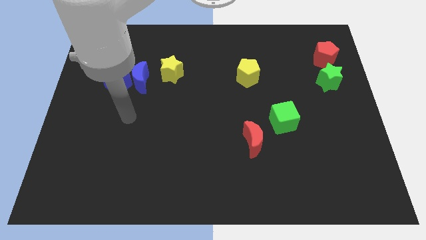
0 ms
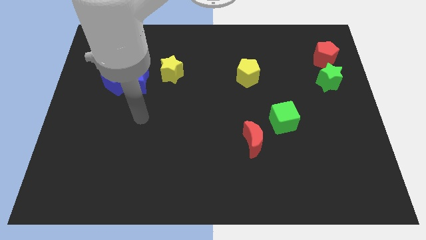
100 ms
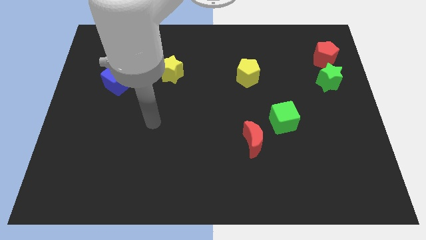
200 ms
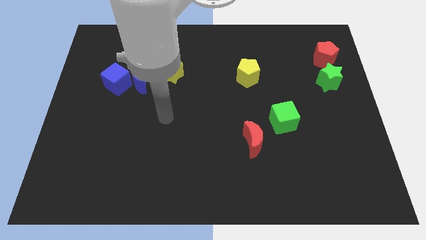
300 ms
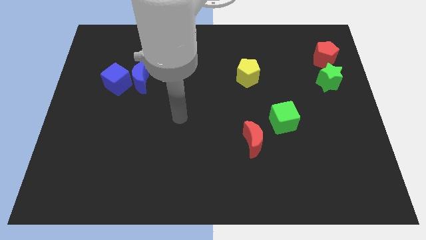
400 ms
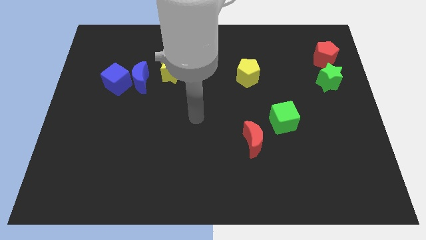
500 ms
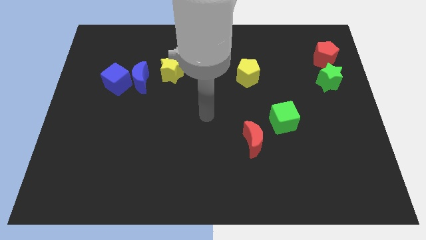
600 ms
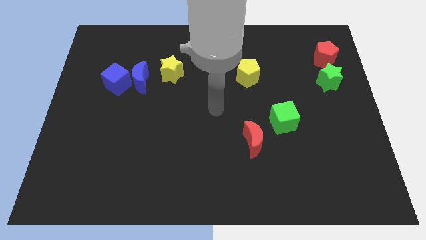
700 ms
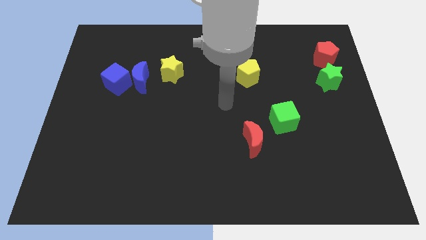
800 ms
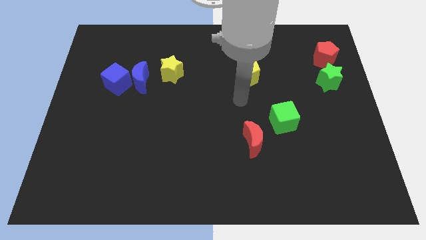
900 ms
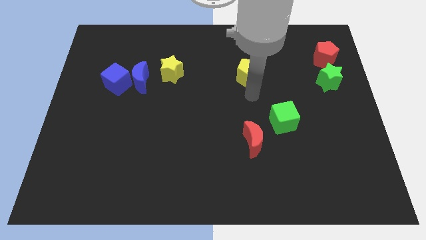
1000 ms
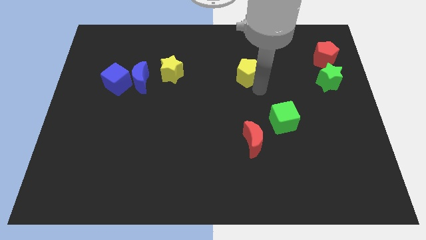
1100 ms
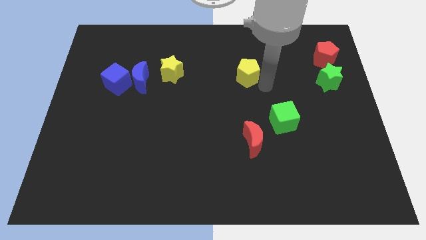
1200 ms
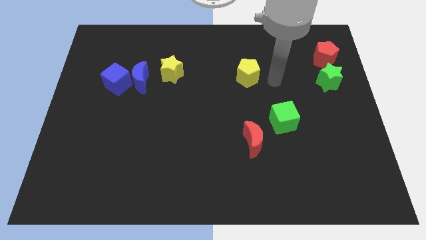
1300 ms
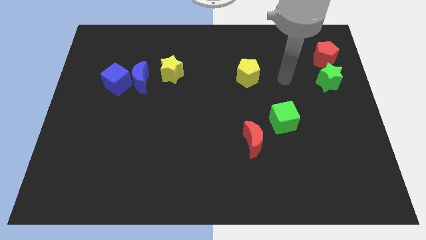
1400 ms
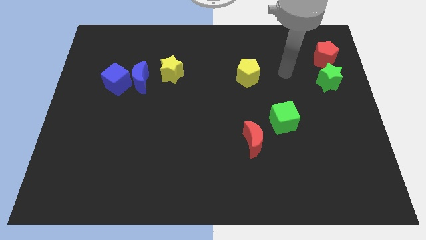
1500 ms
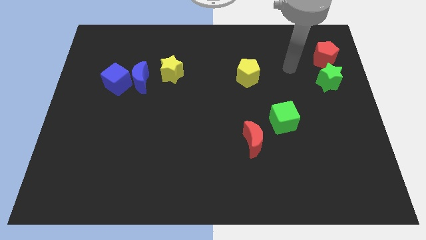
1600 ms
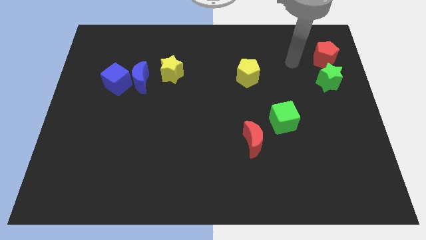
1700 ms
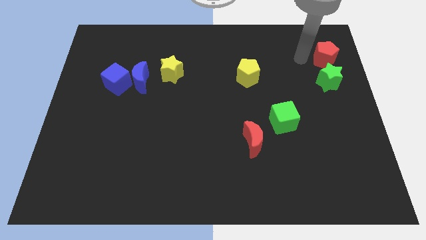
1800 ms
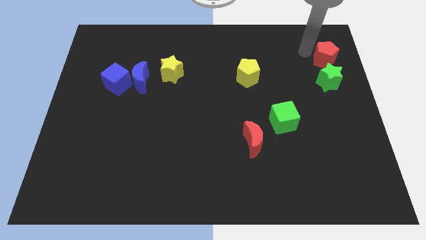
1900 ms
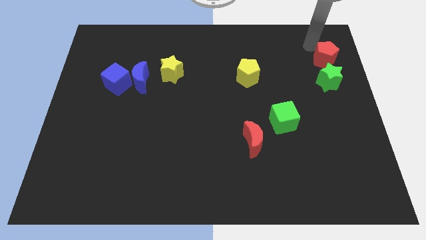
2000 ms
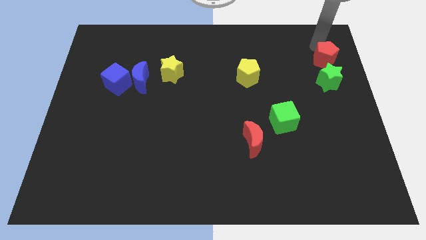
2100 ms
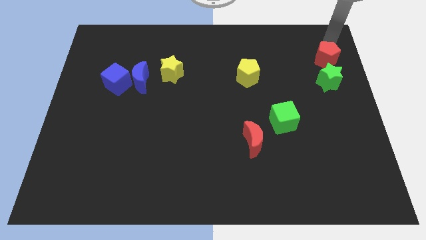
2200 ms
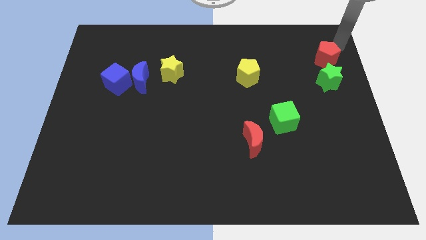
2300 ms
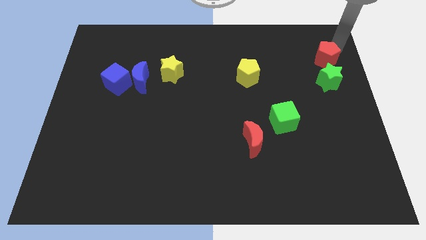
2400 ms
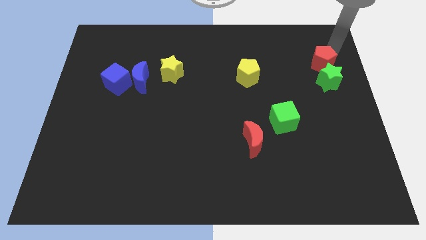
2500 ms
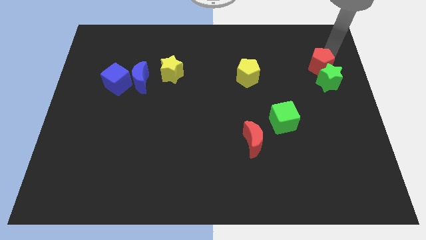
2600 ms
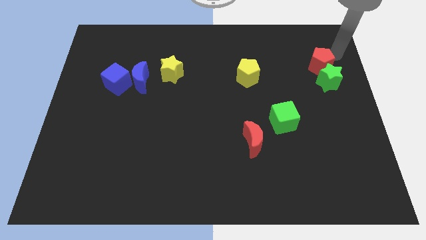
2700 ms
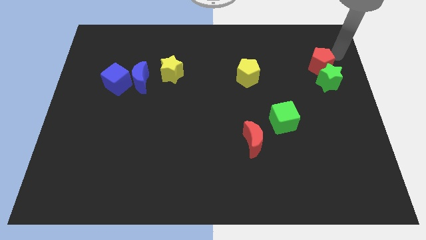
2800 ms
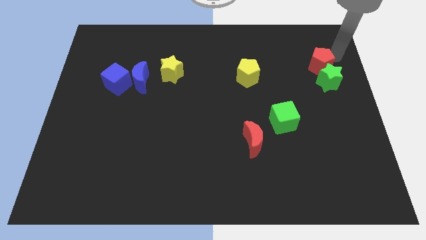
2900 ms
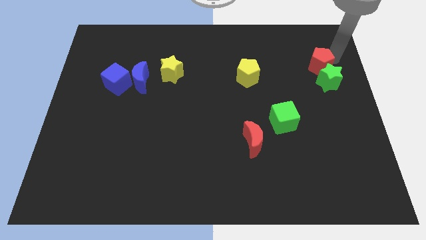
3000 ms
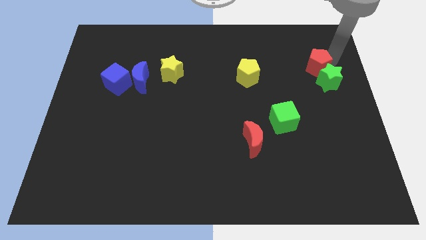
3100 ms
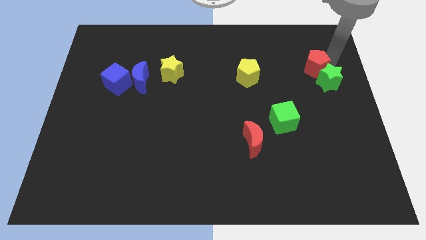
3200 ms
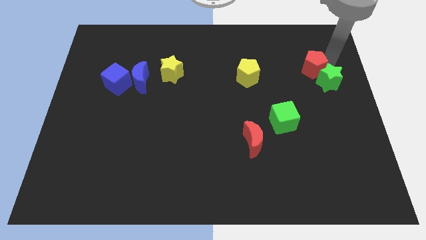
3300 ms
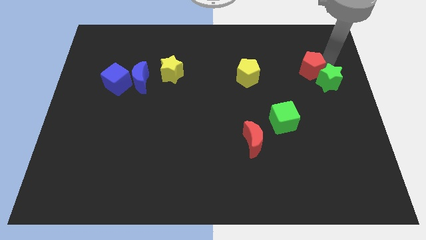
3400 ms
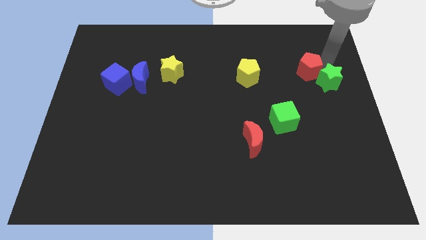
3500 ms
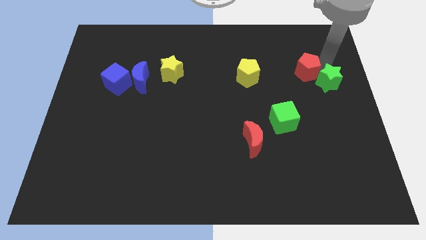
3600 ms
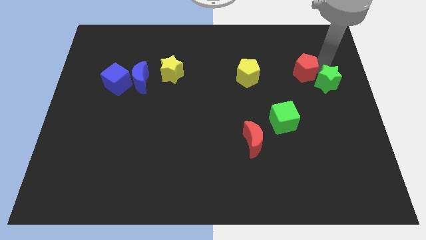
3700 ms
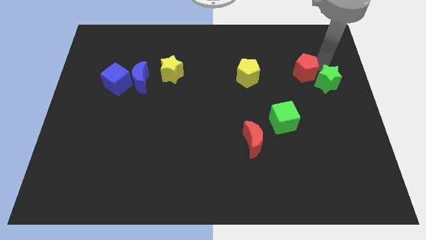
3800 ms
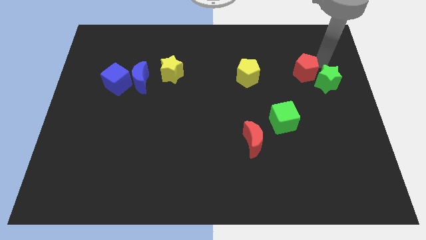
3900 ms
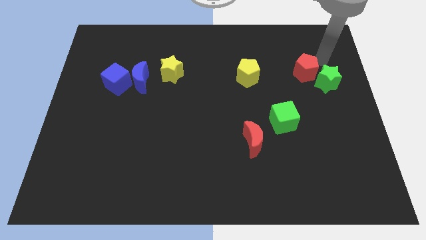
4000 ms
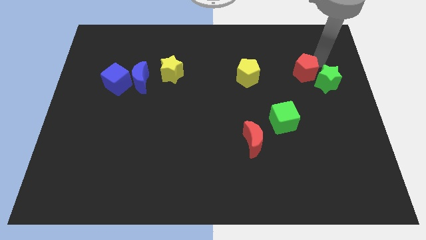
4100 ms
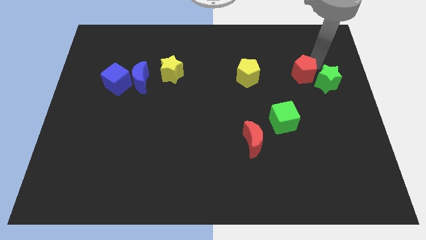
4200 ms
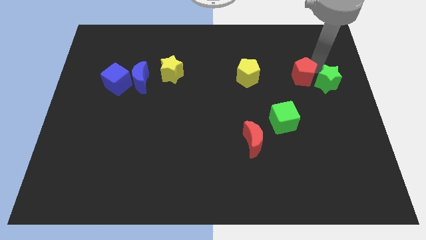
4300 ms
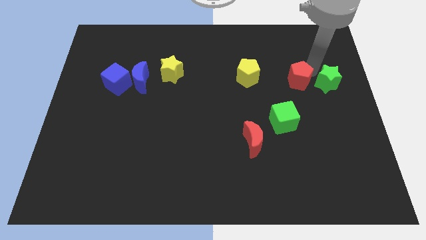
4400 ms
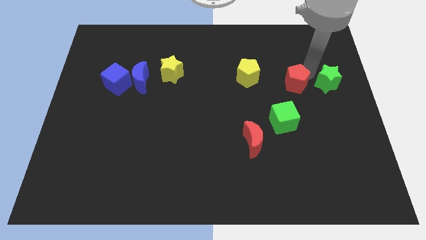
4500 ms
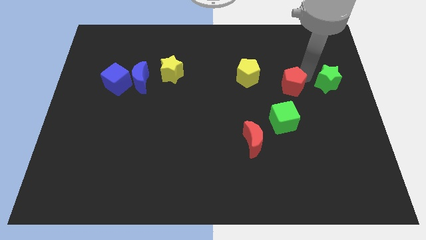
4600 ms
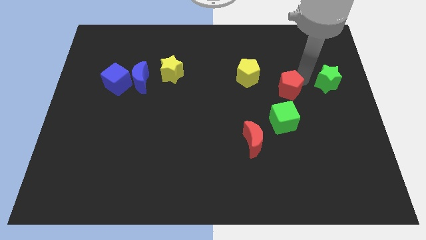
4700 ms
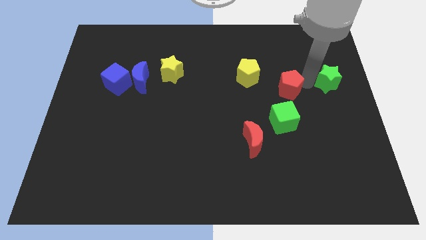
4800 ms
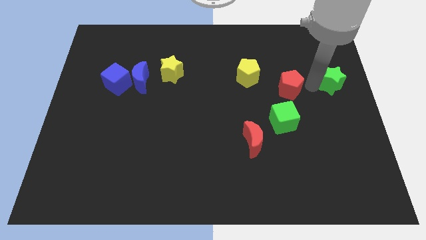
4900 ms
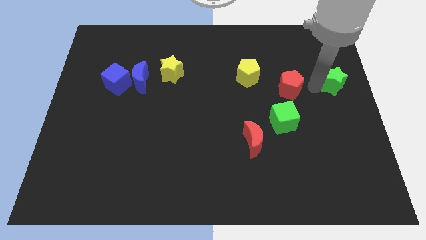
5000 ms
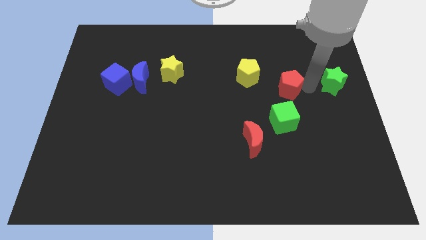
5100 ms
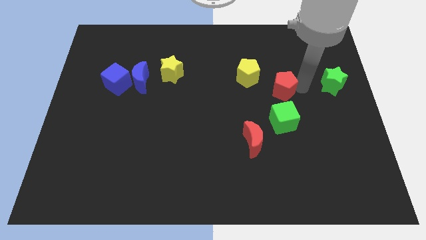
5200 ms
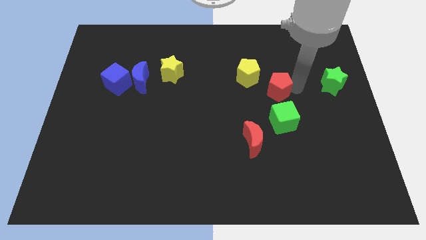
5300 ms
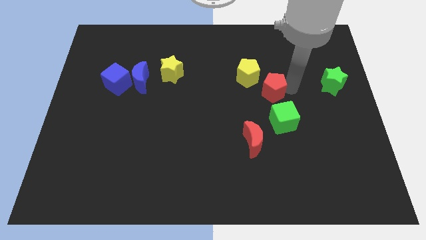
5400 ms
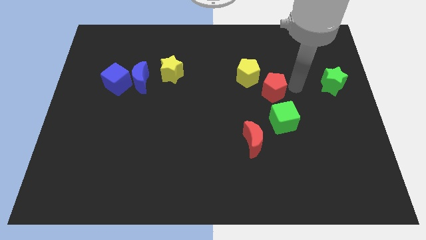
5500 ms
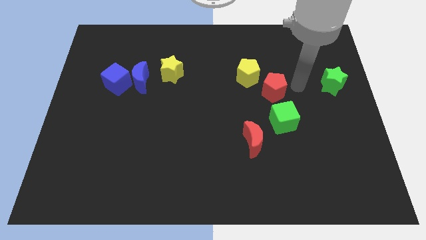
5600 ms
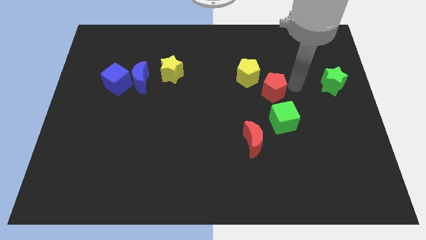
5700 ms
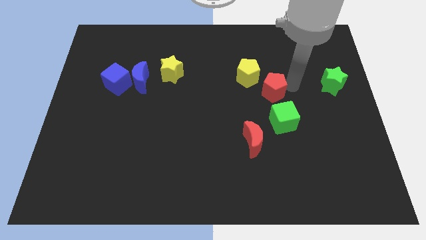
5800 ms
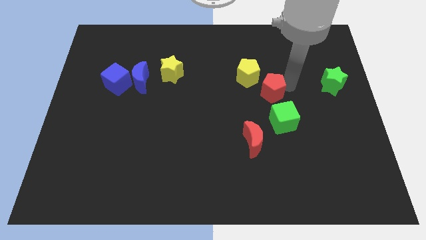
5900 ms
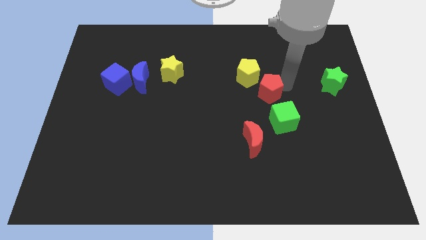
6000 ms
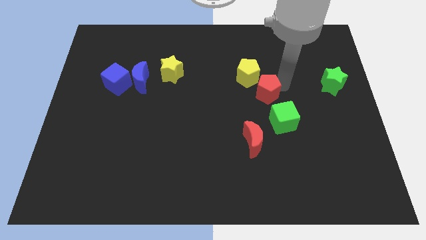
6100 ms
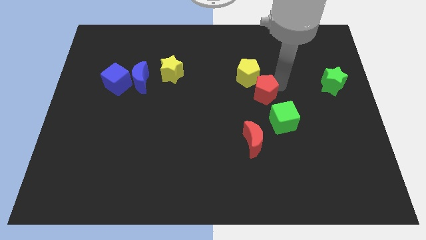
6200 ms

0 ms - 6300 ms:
slide the red pentagon to the center of the board

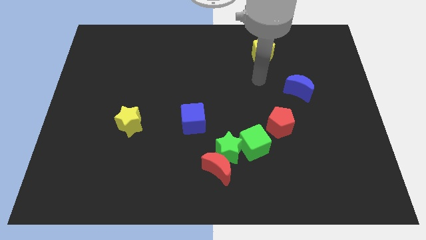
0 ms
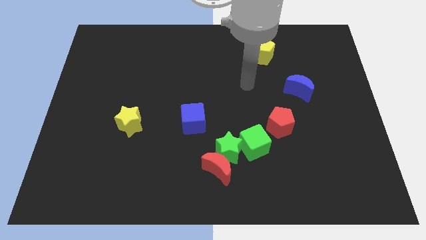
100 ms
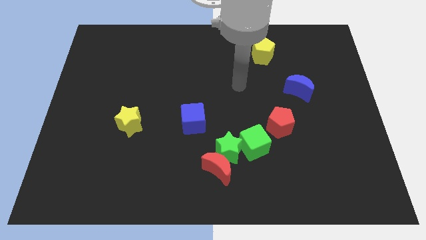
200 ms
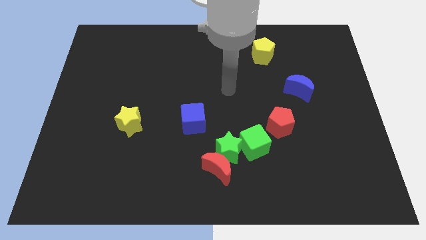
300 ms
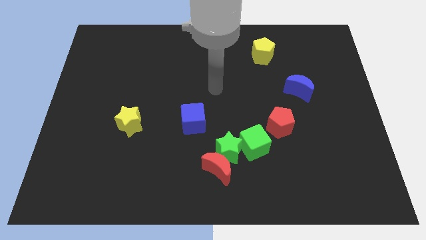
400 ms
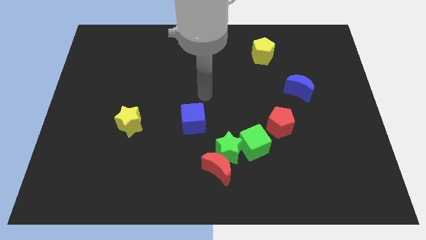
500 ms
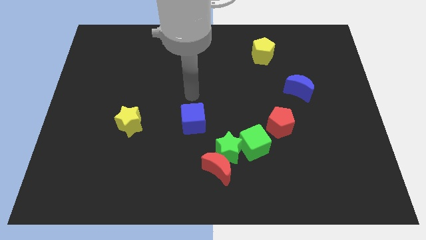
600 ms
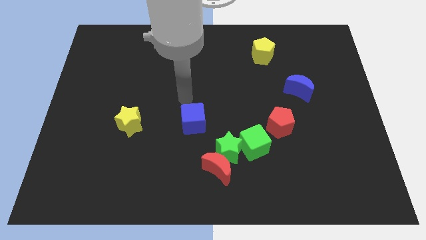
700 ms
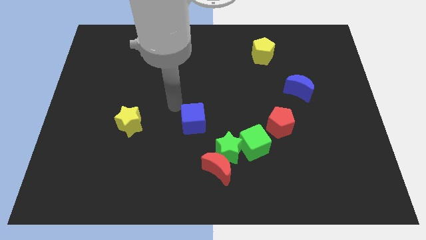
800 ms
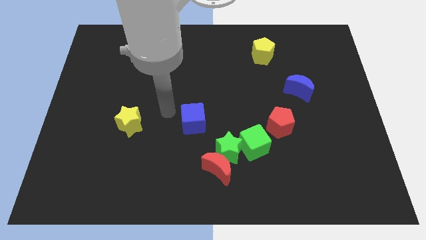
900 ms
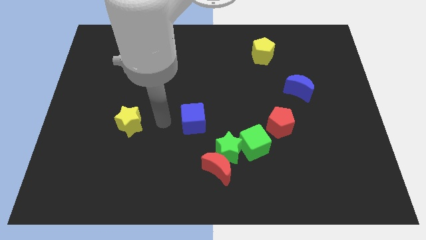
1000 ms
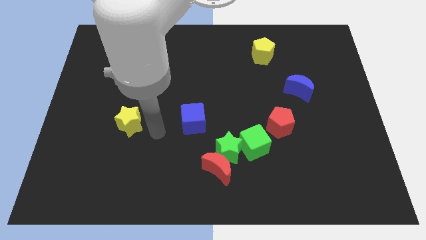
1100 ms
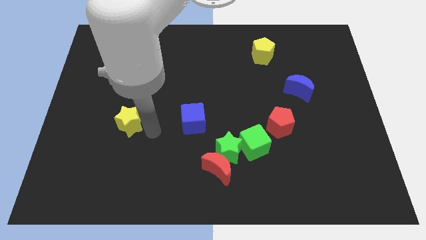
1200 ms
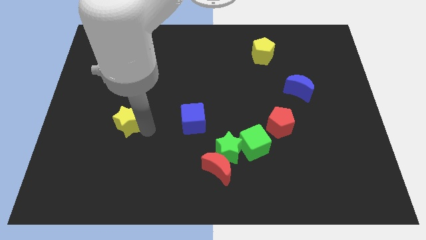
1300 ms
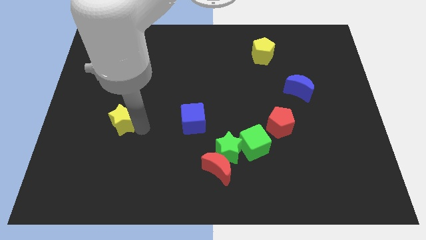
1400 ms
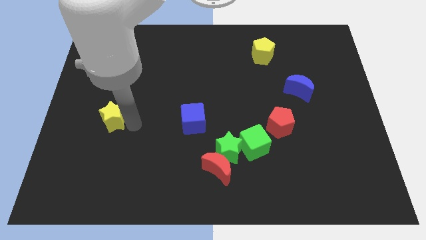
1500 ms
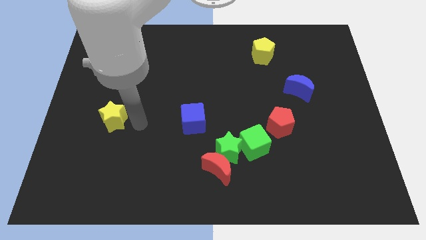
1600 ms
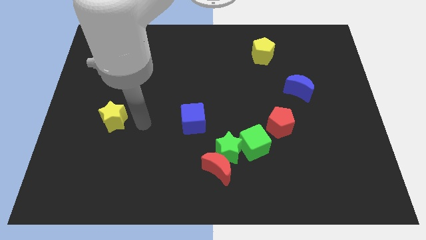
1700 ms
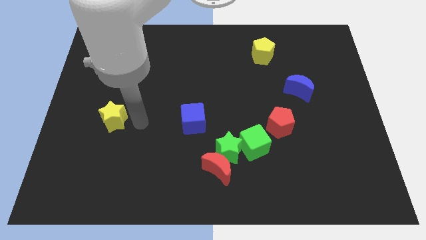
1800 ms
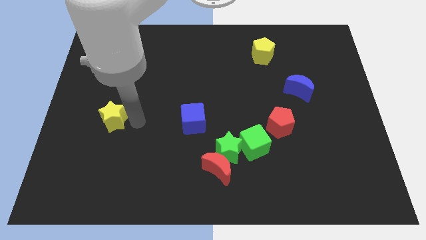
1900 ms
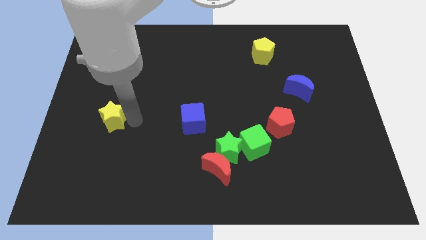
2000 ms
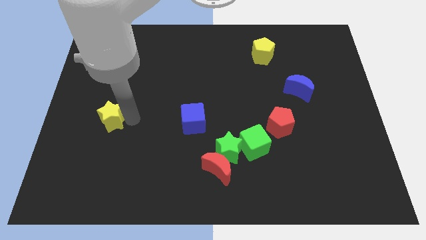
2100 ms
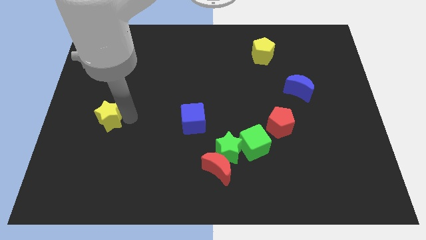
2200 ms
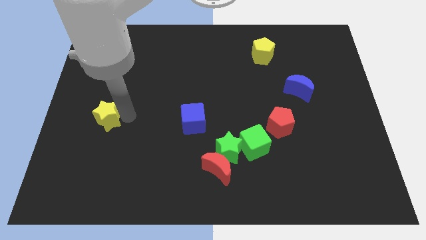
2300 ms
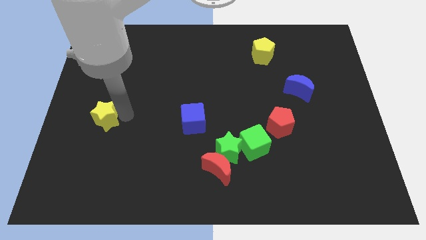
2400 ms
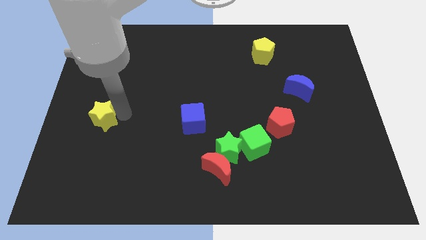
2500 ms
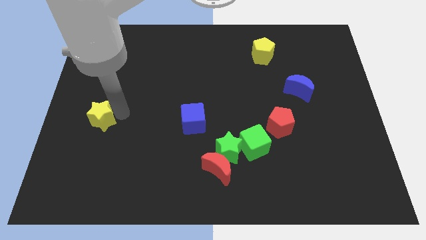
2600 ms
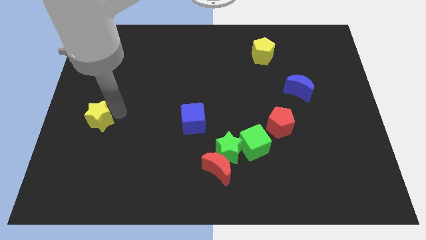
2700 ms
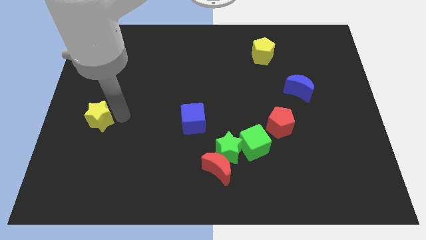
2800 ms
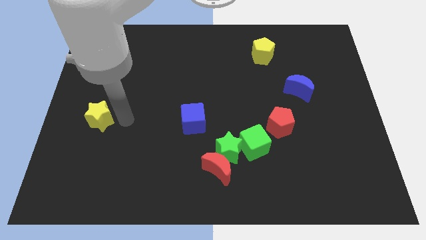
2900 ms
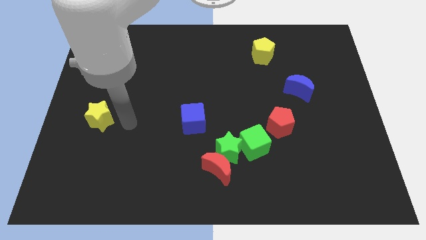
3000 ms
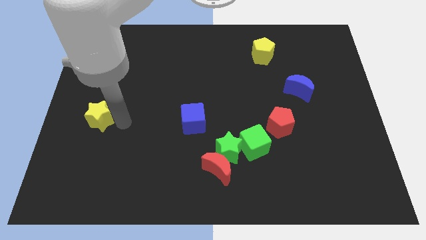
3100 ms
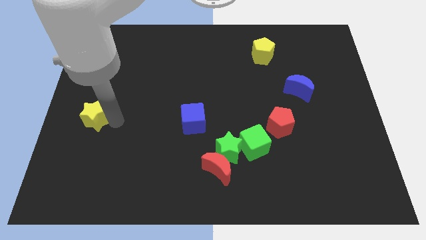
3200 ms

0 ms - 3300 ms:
put the yellow star to the left side of the board
